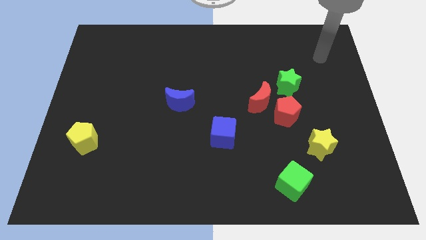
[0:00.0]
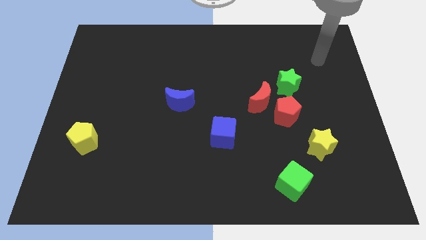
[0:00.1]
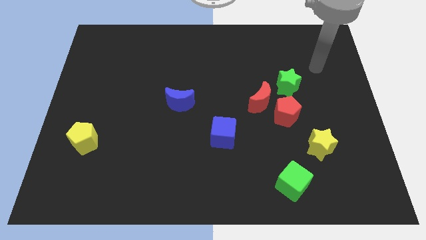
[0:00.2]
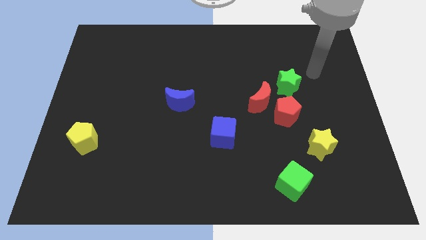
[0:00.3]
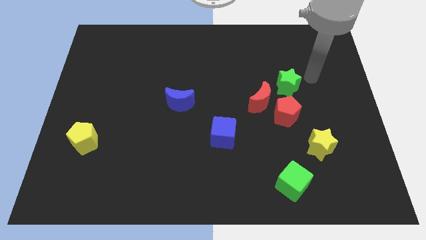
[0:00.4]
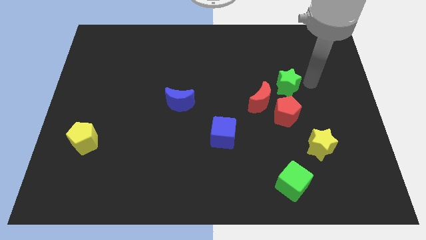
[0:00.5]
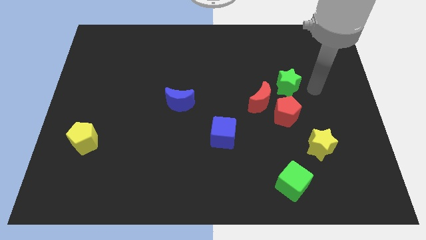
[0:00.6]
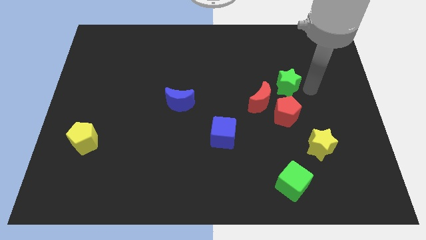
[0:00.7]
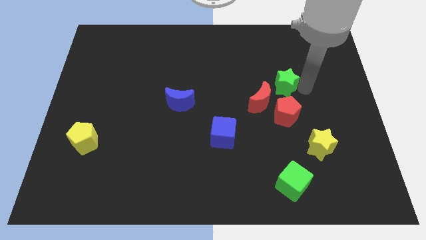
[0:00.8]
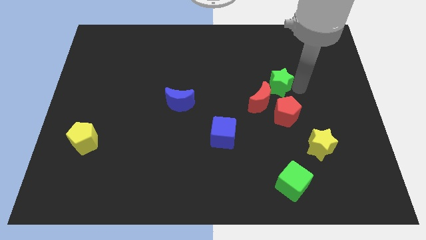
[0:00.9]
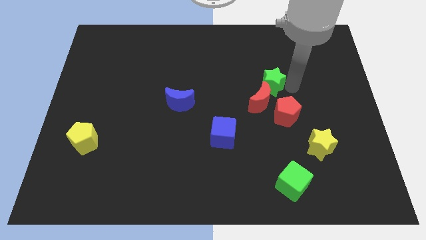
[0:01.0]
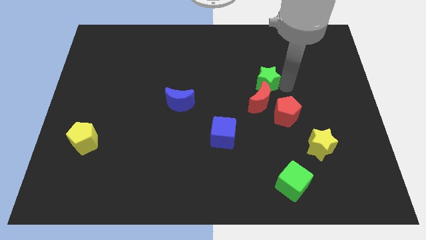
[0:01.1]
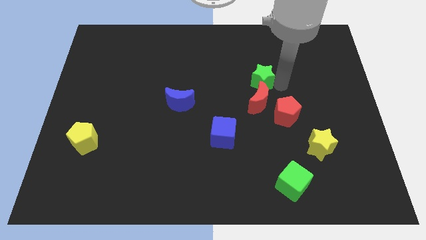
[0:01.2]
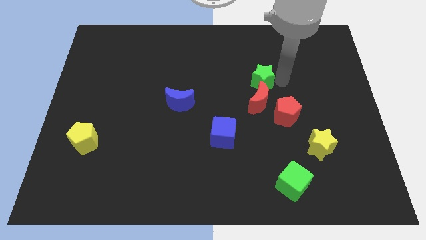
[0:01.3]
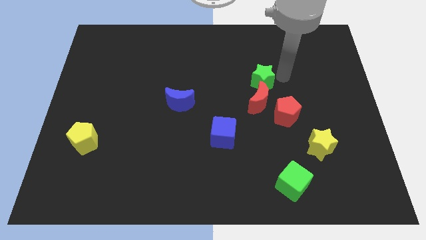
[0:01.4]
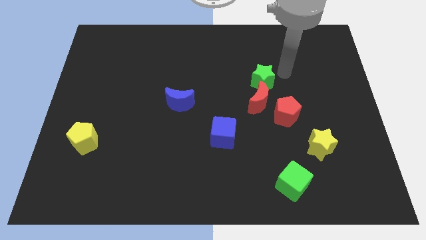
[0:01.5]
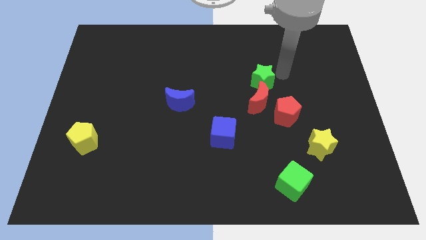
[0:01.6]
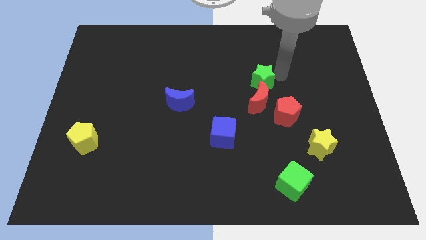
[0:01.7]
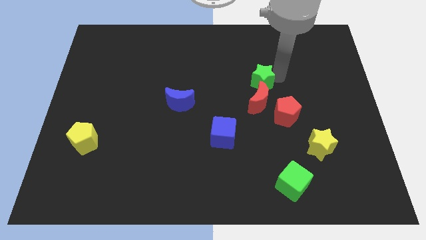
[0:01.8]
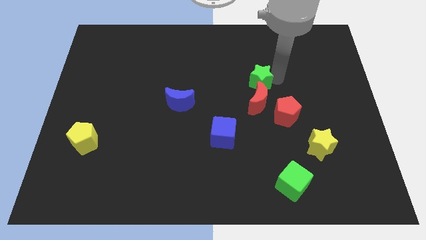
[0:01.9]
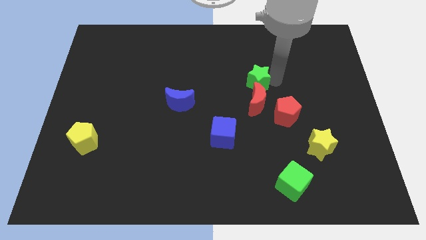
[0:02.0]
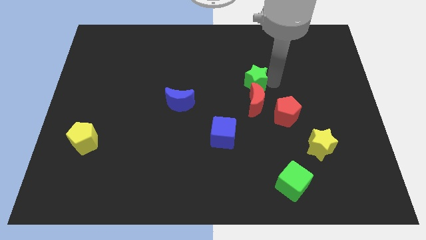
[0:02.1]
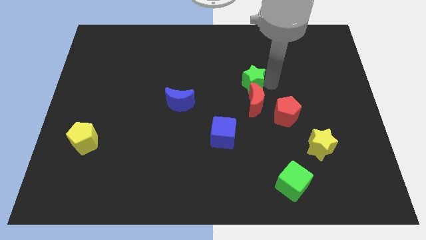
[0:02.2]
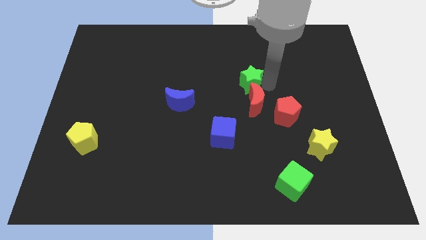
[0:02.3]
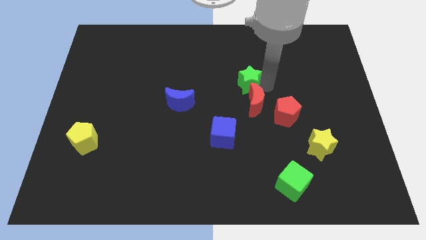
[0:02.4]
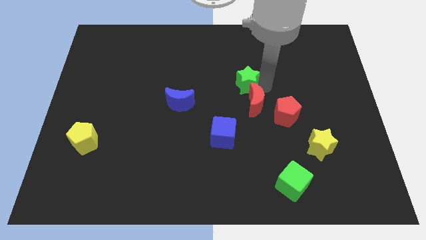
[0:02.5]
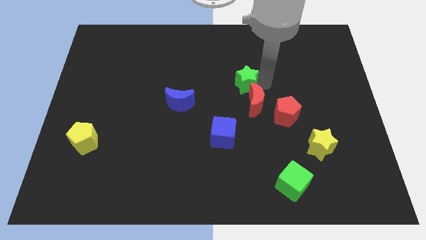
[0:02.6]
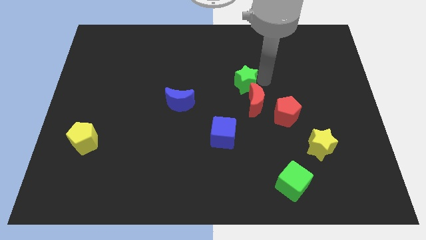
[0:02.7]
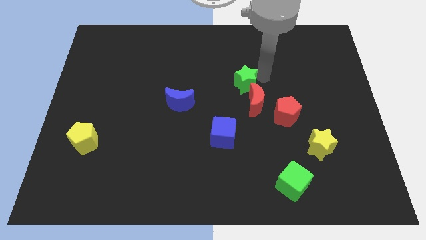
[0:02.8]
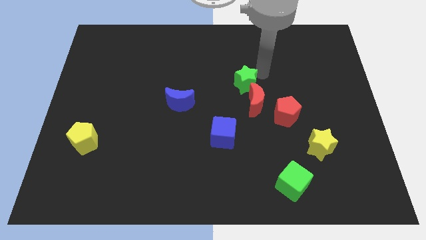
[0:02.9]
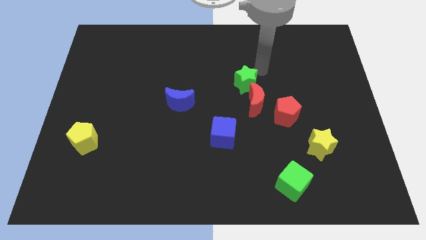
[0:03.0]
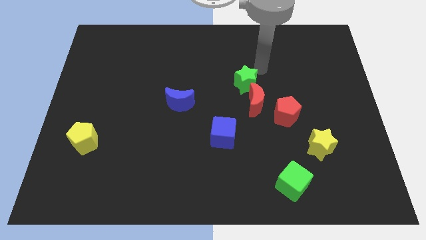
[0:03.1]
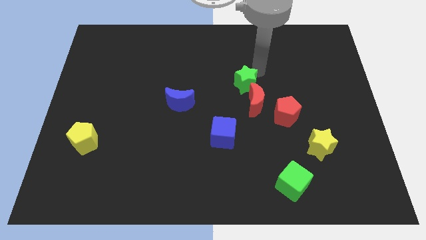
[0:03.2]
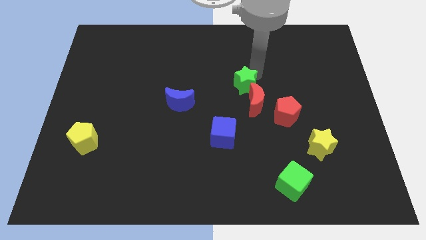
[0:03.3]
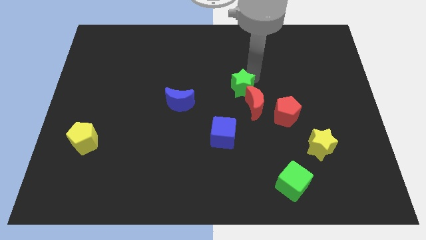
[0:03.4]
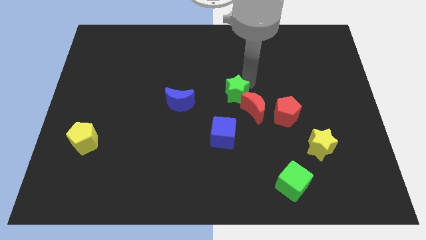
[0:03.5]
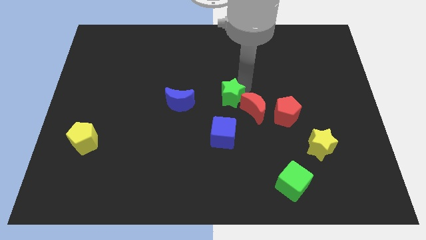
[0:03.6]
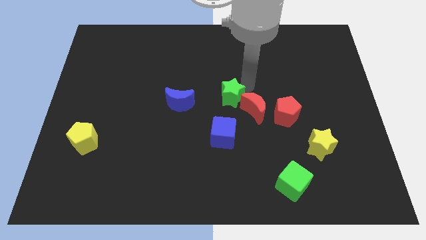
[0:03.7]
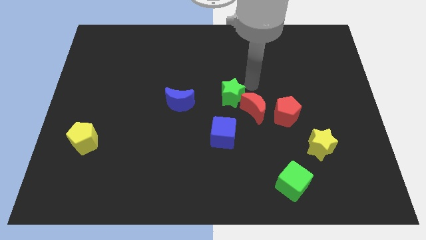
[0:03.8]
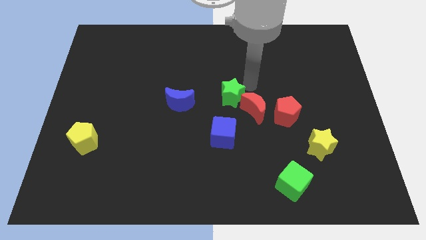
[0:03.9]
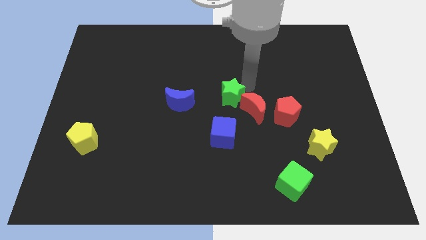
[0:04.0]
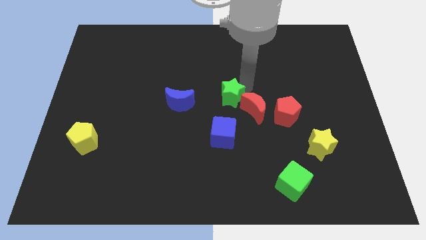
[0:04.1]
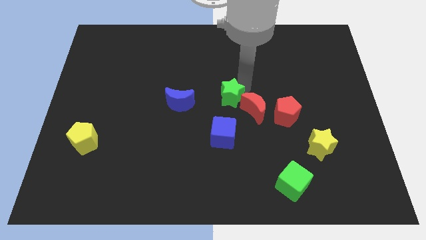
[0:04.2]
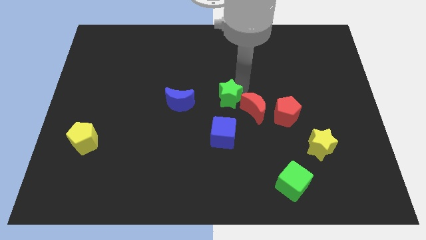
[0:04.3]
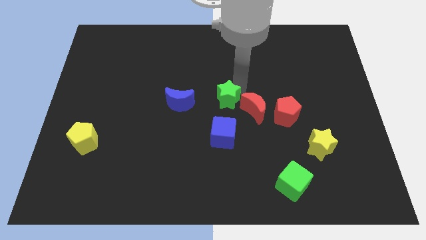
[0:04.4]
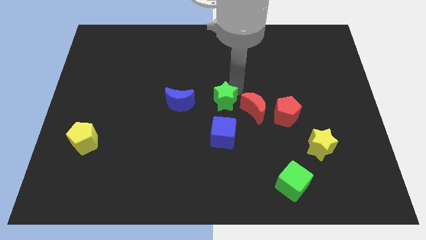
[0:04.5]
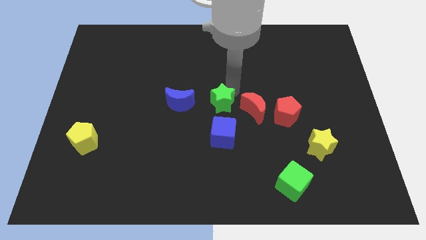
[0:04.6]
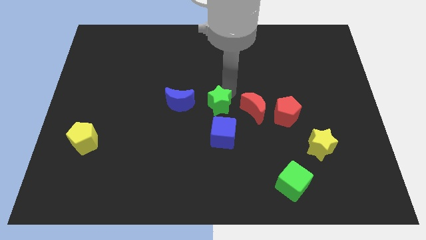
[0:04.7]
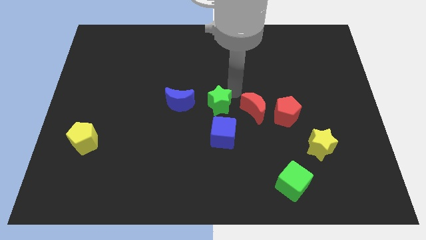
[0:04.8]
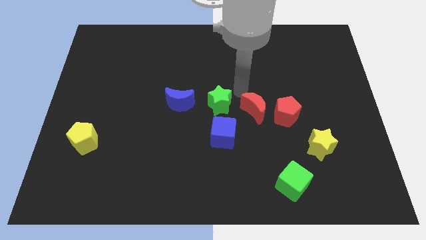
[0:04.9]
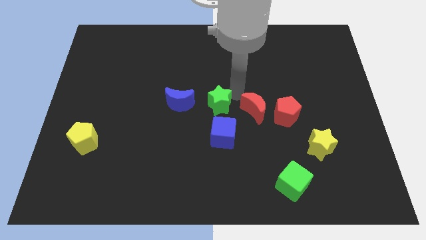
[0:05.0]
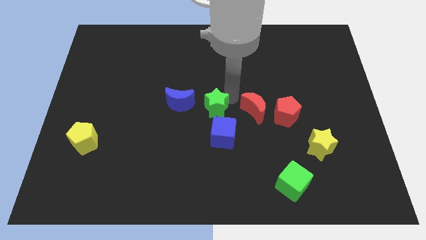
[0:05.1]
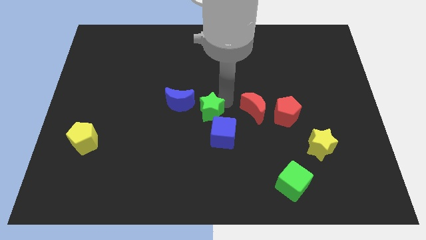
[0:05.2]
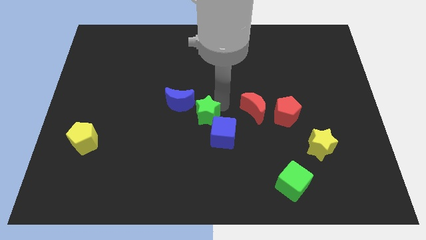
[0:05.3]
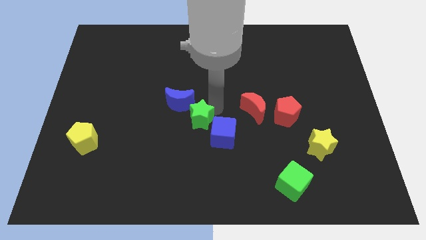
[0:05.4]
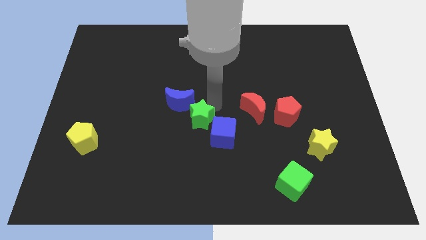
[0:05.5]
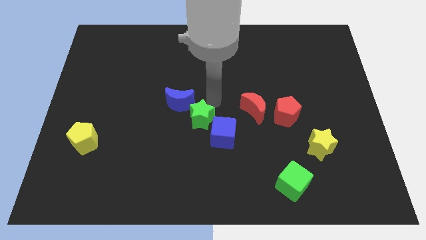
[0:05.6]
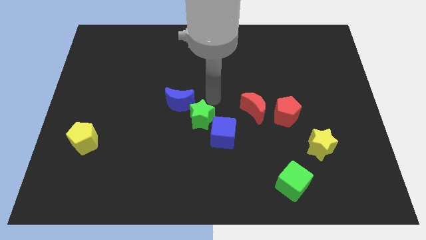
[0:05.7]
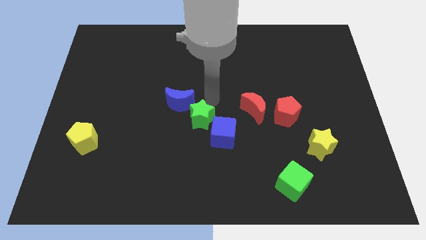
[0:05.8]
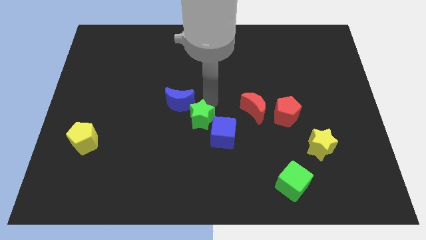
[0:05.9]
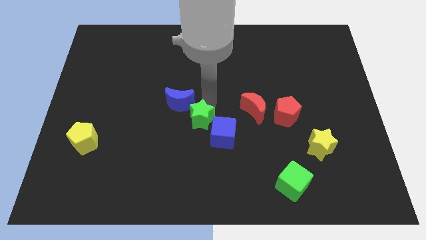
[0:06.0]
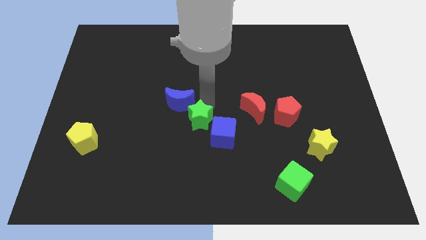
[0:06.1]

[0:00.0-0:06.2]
push the green star downwards and then left

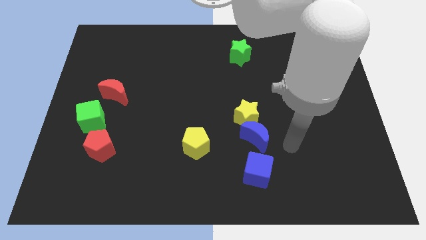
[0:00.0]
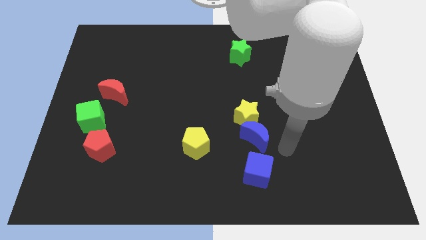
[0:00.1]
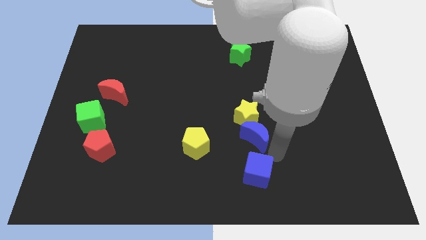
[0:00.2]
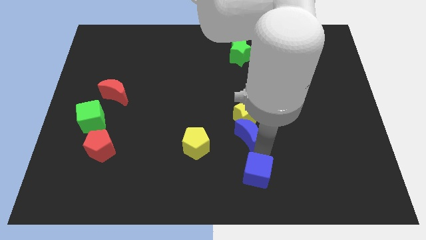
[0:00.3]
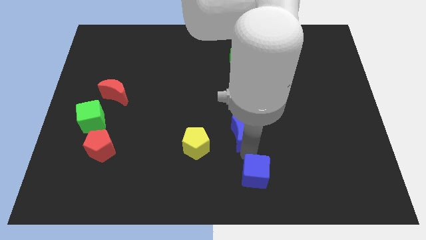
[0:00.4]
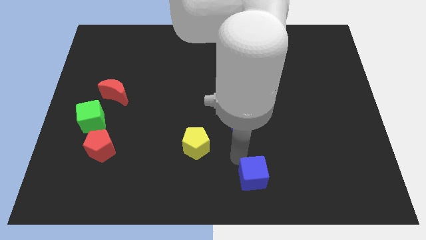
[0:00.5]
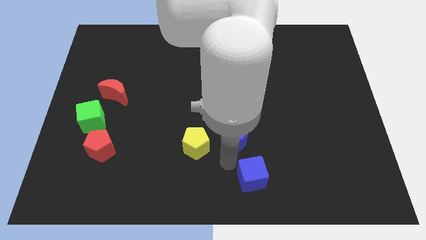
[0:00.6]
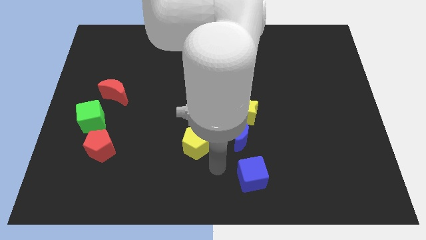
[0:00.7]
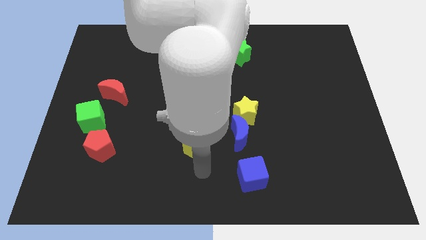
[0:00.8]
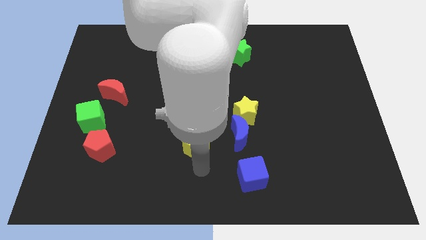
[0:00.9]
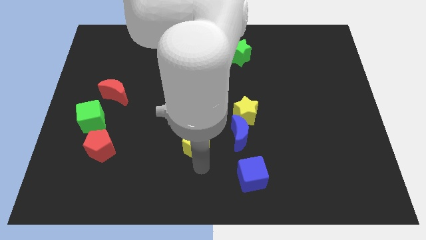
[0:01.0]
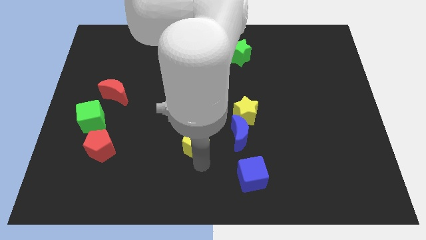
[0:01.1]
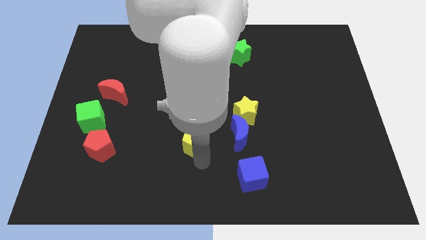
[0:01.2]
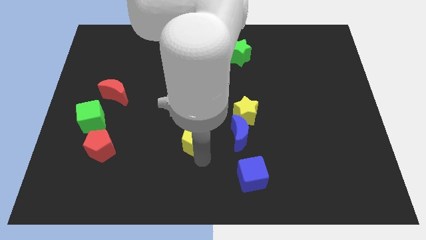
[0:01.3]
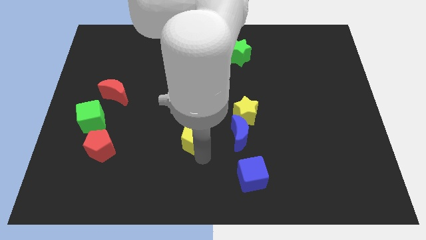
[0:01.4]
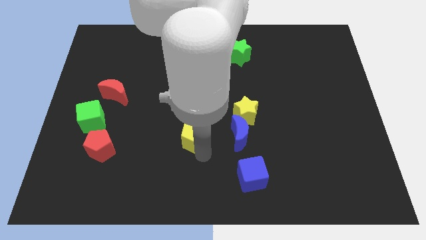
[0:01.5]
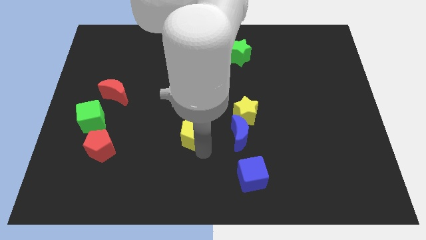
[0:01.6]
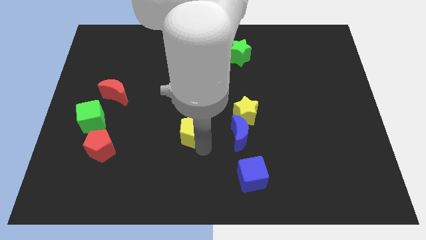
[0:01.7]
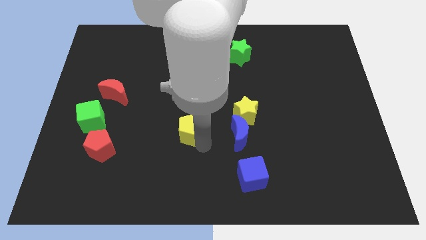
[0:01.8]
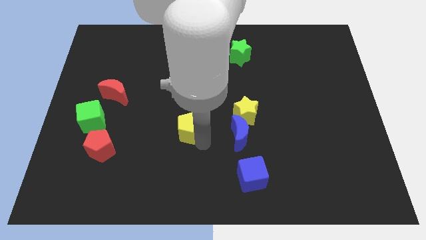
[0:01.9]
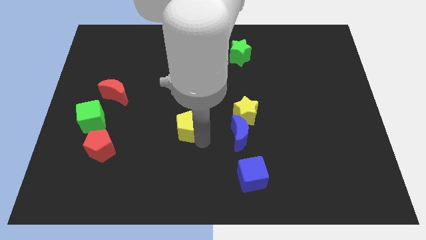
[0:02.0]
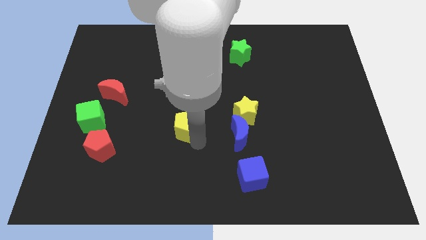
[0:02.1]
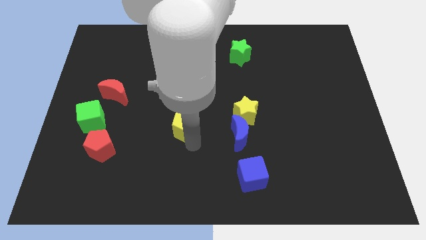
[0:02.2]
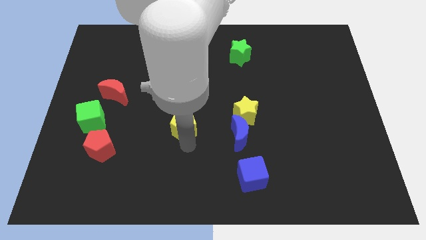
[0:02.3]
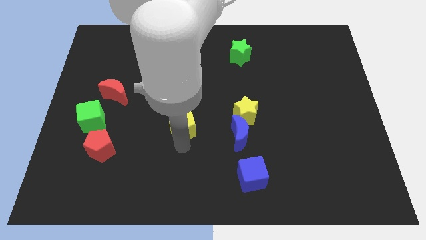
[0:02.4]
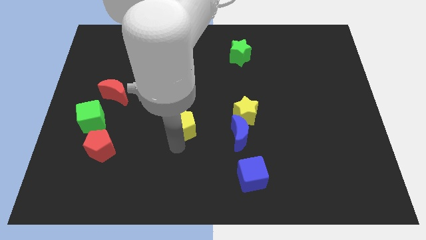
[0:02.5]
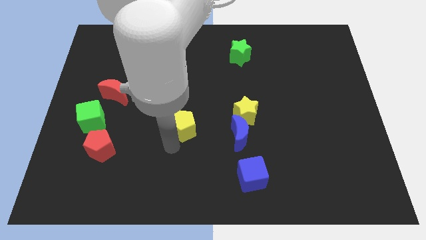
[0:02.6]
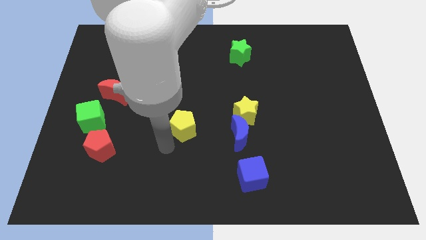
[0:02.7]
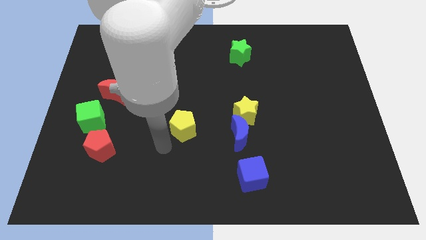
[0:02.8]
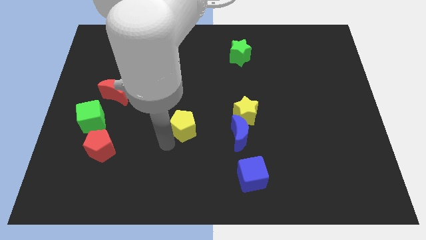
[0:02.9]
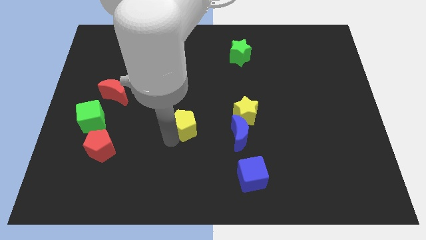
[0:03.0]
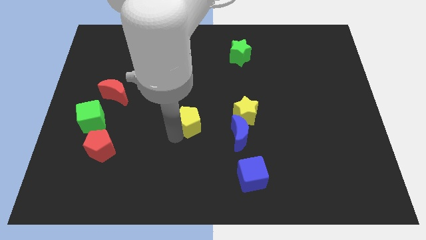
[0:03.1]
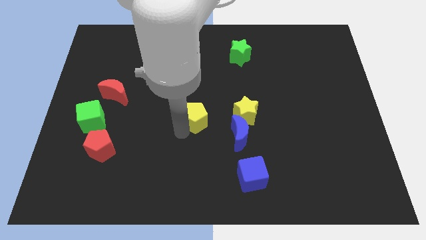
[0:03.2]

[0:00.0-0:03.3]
move the yellow pentagon slightly upwards
